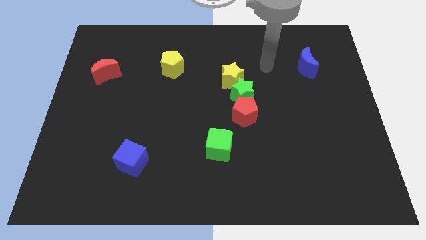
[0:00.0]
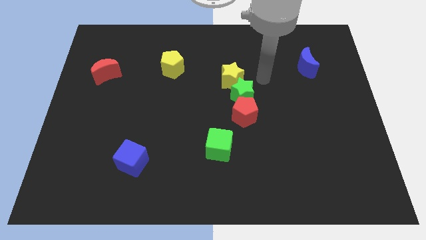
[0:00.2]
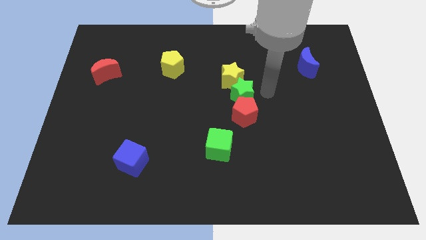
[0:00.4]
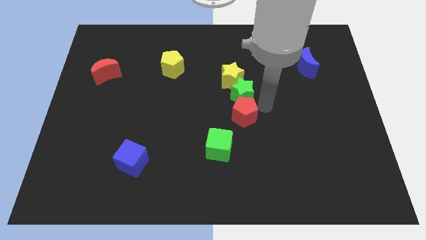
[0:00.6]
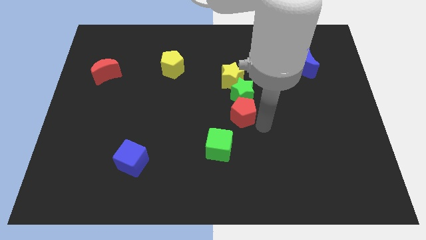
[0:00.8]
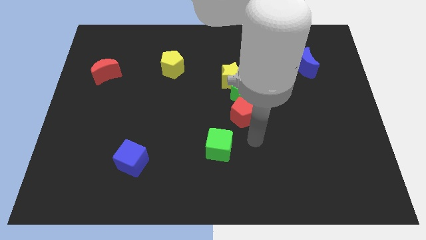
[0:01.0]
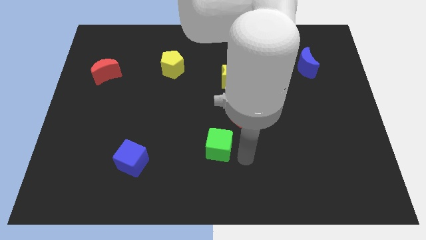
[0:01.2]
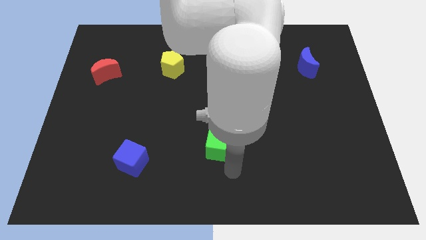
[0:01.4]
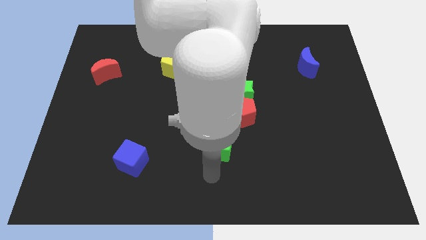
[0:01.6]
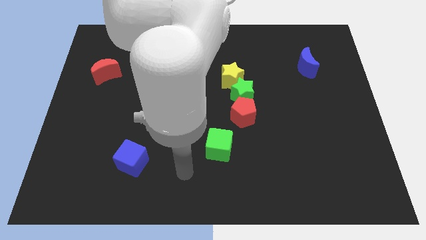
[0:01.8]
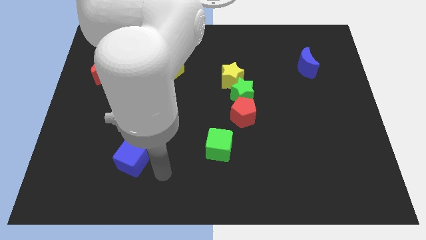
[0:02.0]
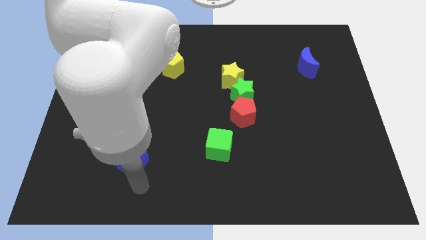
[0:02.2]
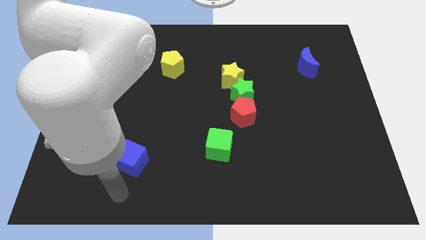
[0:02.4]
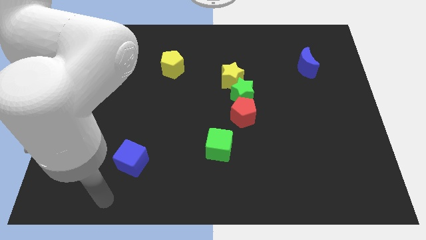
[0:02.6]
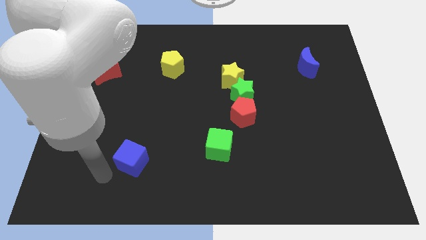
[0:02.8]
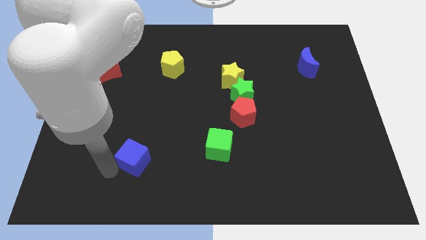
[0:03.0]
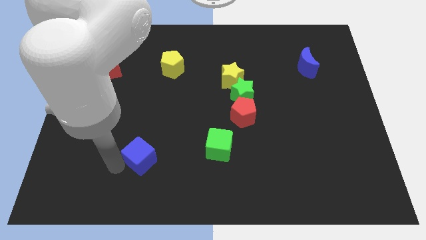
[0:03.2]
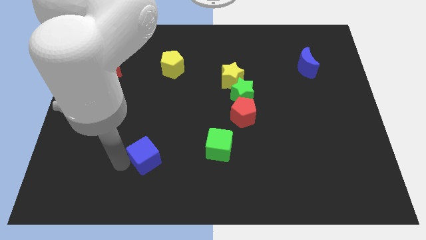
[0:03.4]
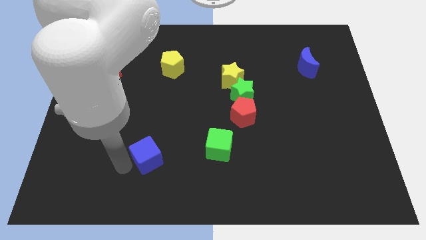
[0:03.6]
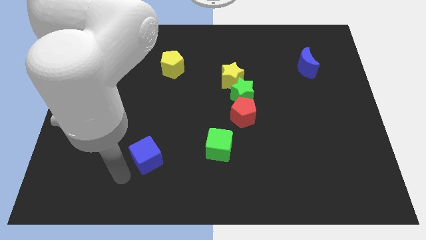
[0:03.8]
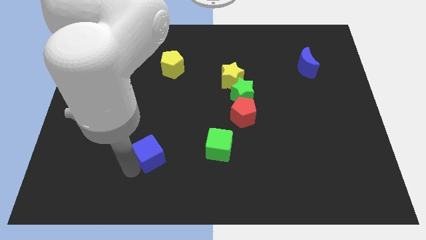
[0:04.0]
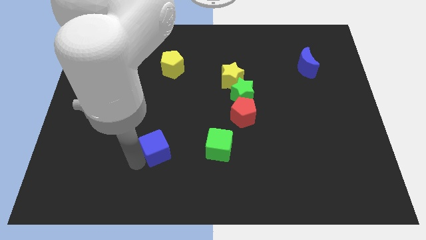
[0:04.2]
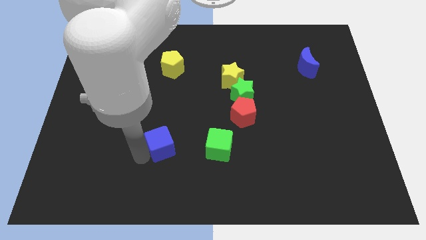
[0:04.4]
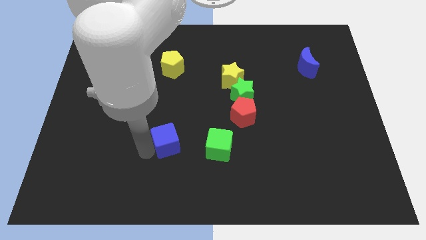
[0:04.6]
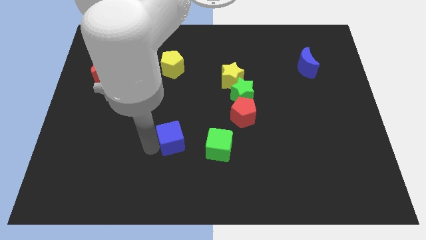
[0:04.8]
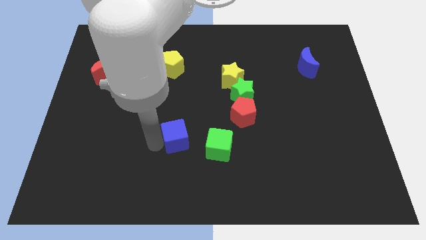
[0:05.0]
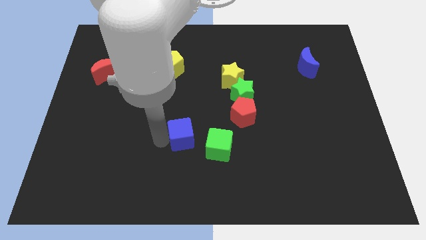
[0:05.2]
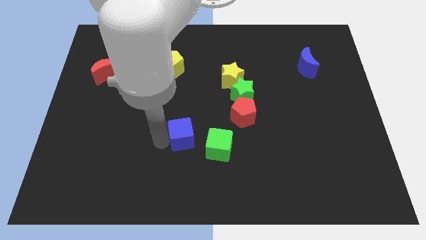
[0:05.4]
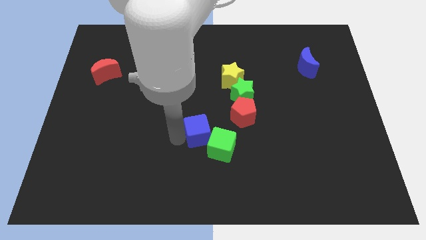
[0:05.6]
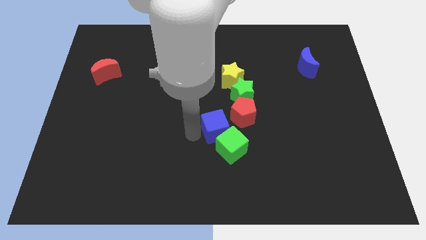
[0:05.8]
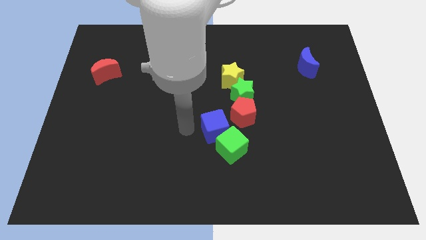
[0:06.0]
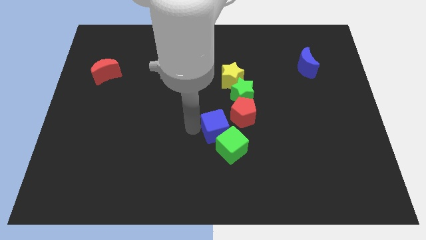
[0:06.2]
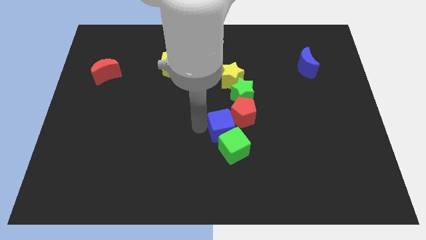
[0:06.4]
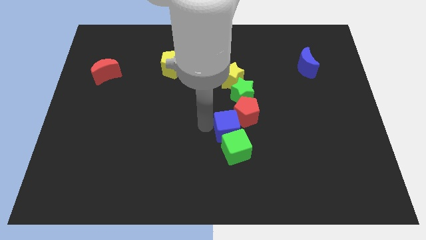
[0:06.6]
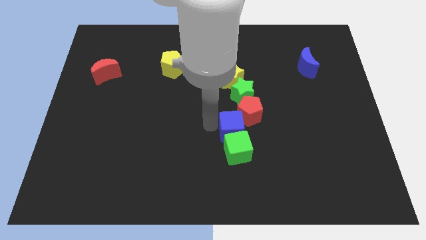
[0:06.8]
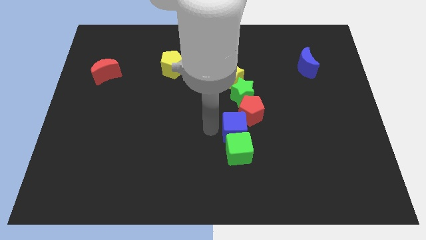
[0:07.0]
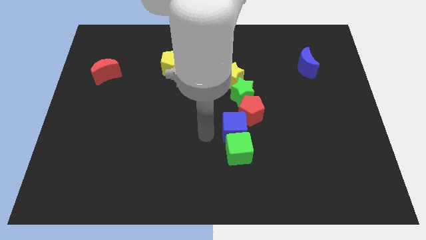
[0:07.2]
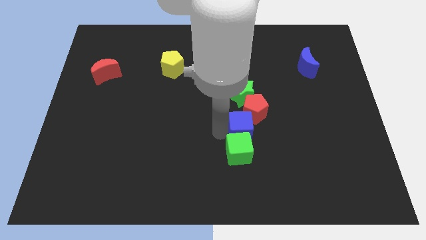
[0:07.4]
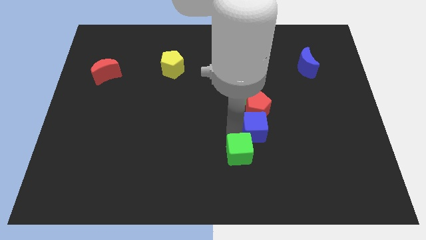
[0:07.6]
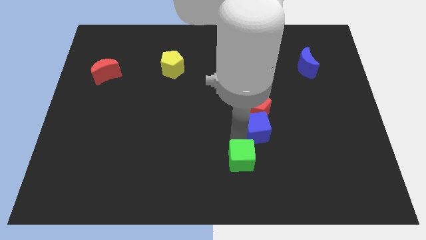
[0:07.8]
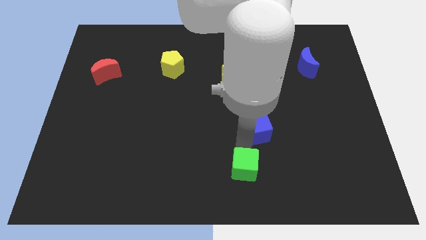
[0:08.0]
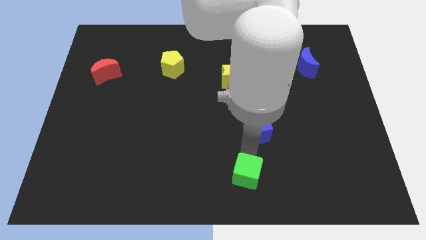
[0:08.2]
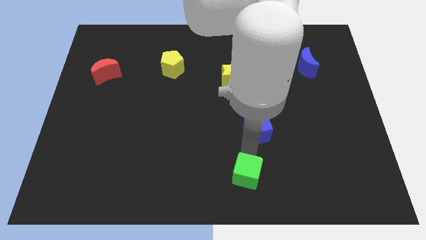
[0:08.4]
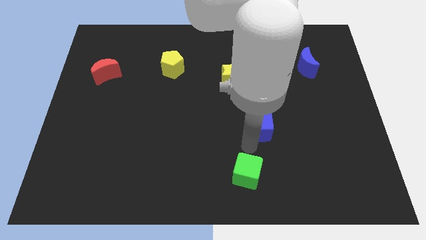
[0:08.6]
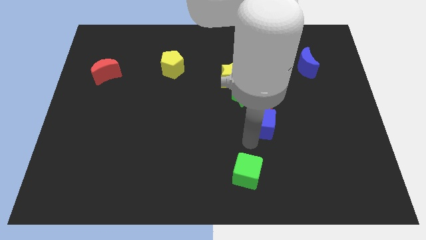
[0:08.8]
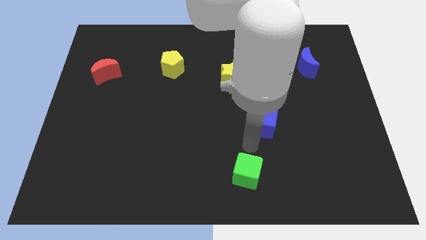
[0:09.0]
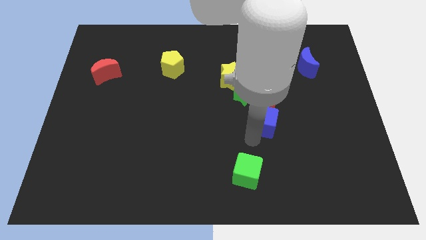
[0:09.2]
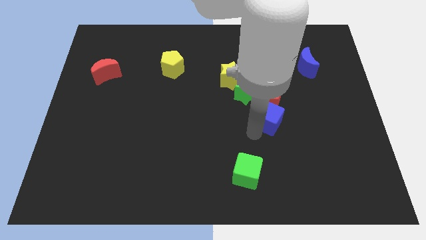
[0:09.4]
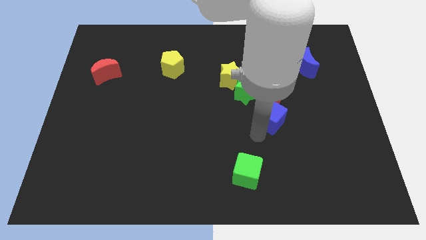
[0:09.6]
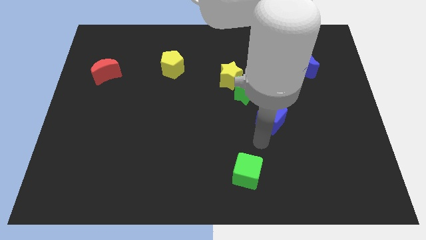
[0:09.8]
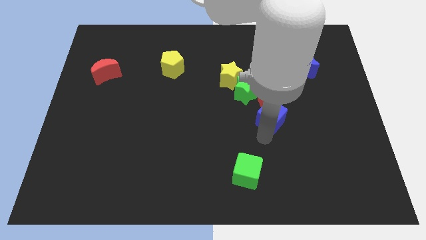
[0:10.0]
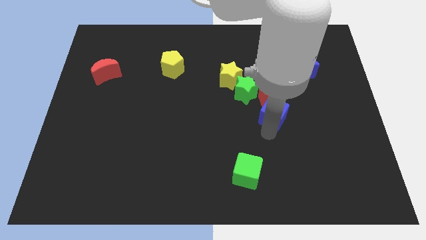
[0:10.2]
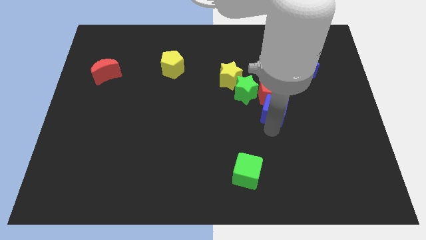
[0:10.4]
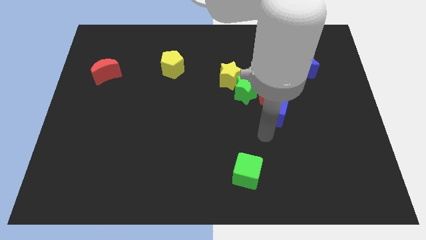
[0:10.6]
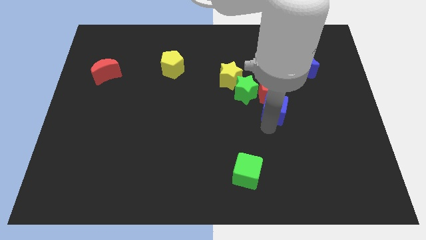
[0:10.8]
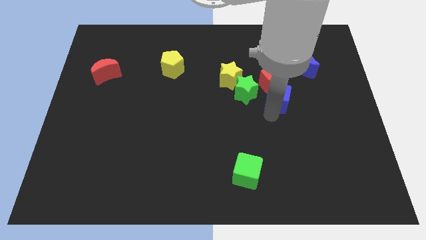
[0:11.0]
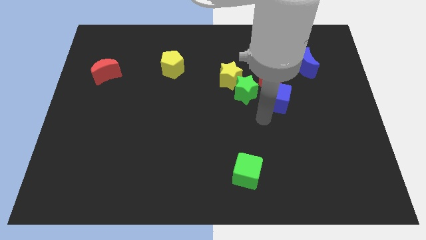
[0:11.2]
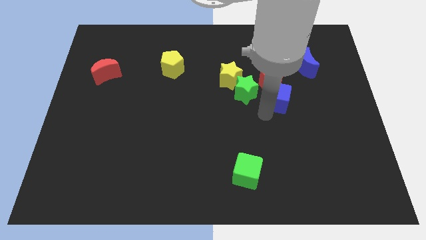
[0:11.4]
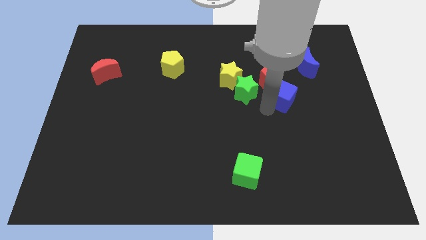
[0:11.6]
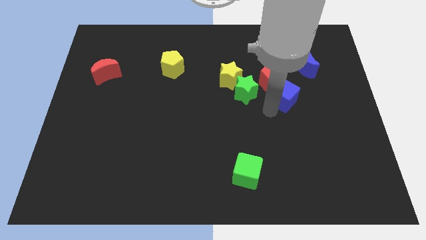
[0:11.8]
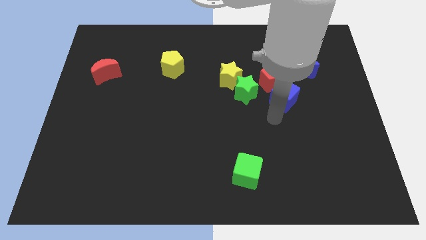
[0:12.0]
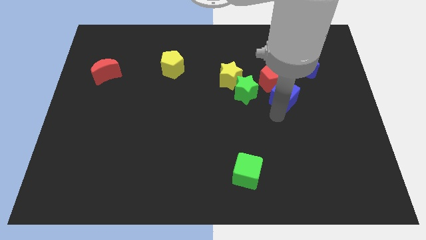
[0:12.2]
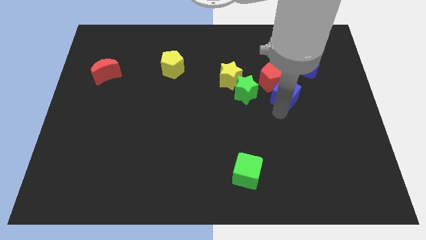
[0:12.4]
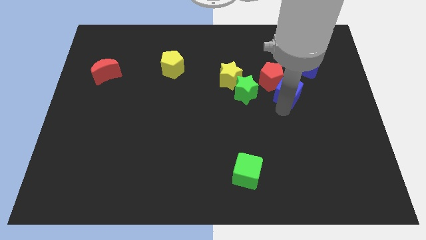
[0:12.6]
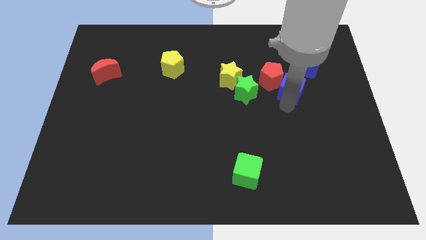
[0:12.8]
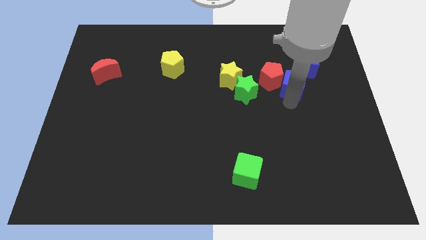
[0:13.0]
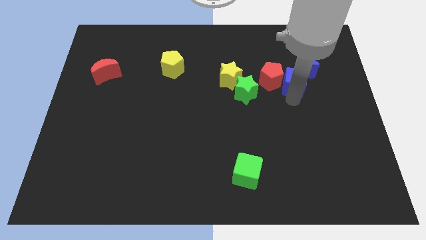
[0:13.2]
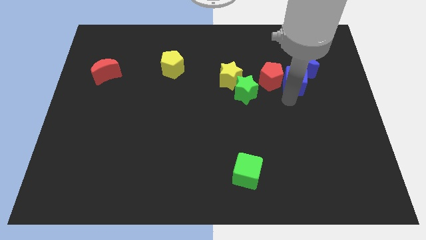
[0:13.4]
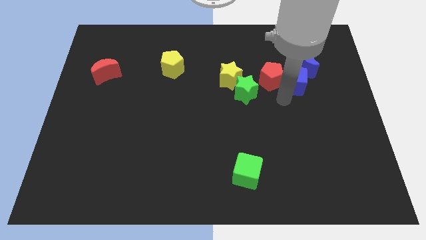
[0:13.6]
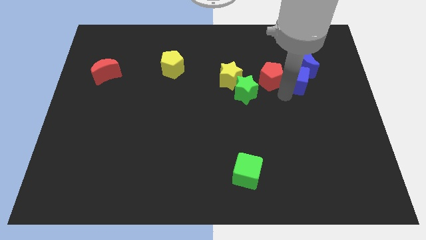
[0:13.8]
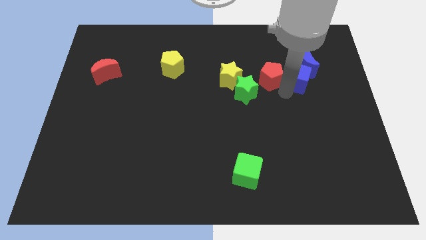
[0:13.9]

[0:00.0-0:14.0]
slide the blue cube close to the blue moon
